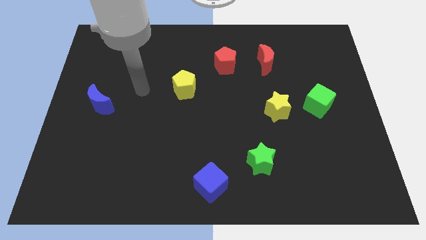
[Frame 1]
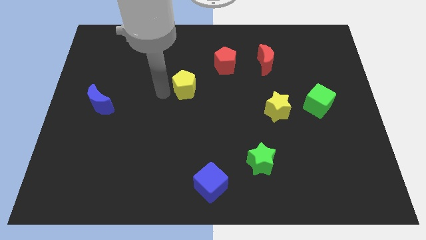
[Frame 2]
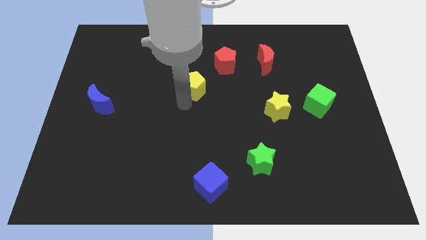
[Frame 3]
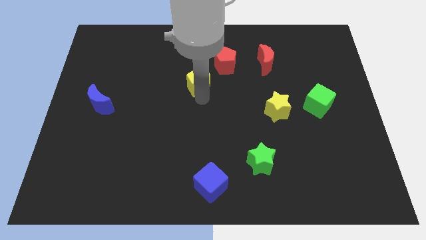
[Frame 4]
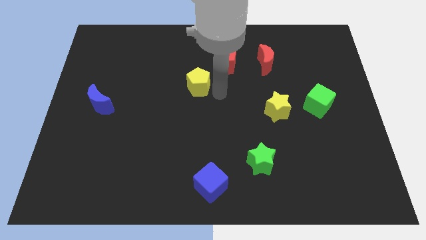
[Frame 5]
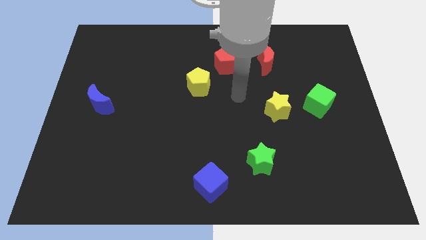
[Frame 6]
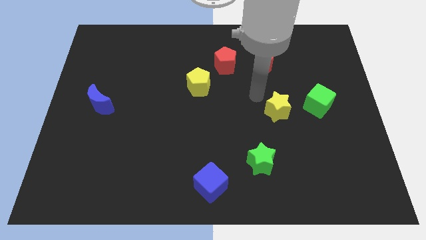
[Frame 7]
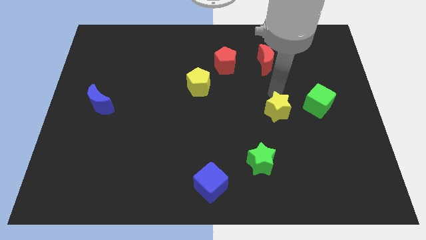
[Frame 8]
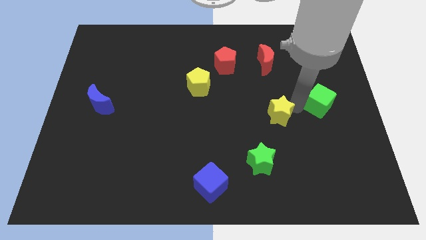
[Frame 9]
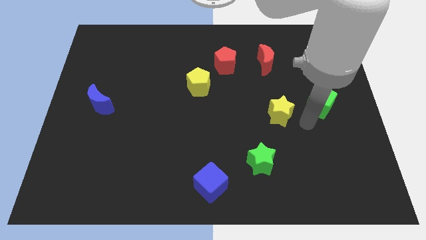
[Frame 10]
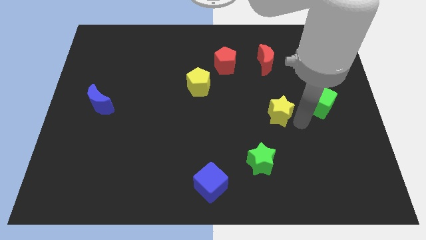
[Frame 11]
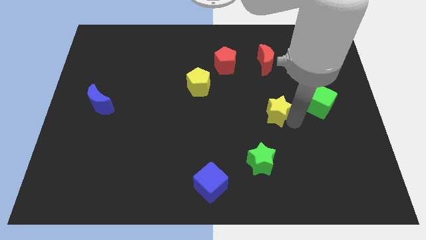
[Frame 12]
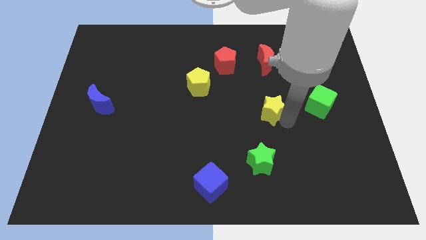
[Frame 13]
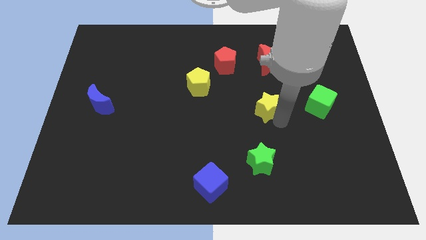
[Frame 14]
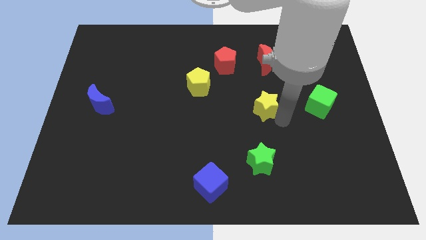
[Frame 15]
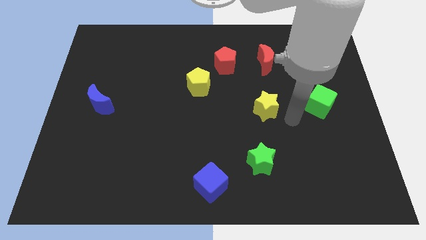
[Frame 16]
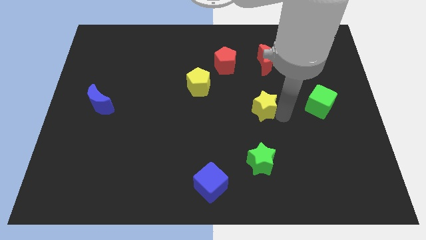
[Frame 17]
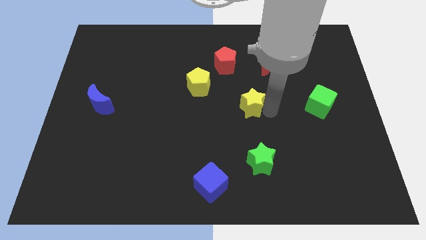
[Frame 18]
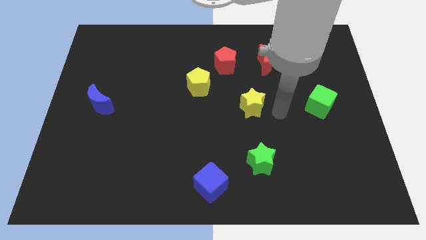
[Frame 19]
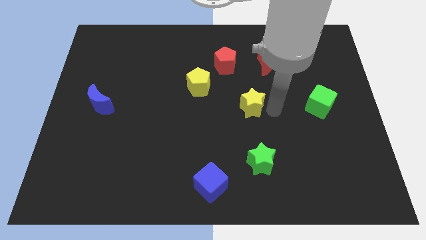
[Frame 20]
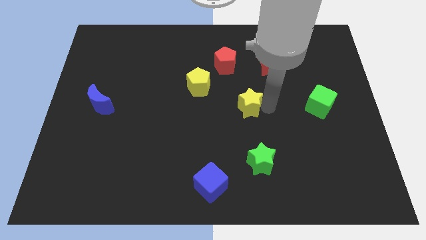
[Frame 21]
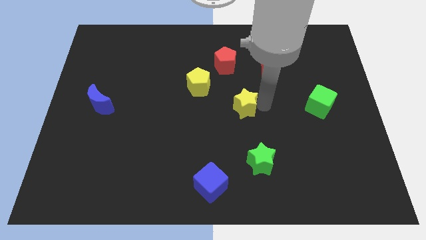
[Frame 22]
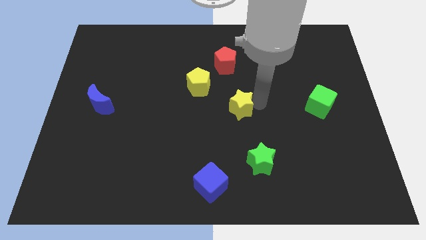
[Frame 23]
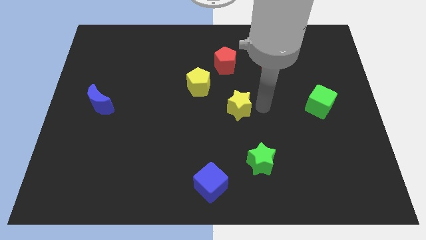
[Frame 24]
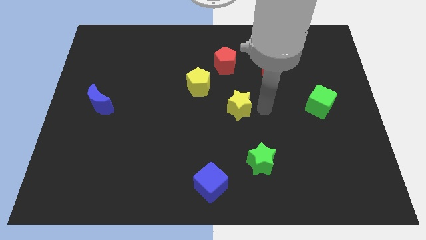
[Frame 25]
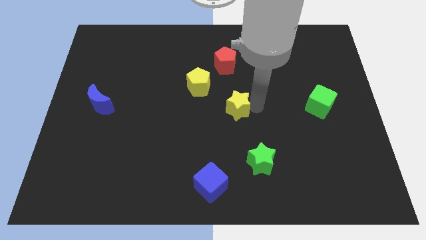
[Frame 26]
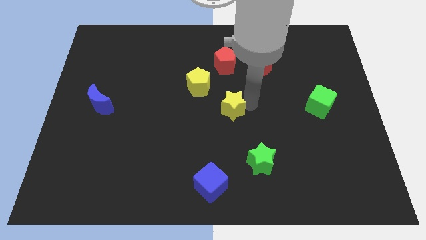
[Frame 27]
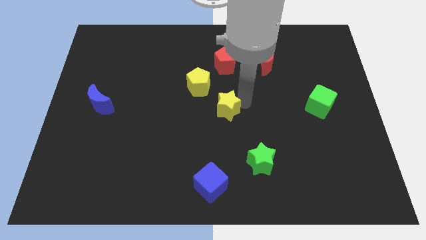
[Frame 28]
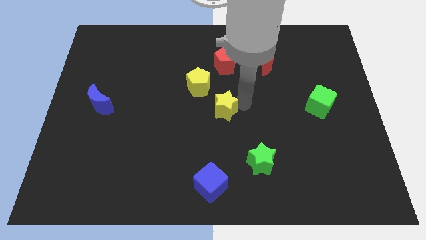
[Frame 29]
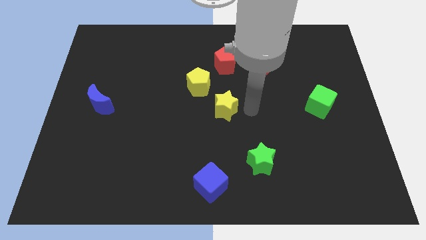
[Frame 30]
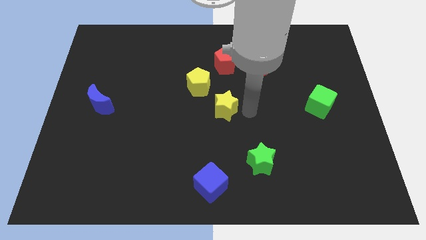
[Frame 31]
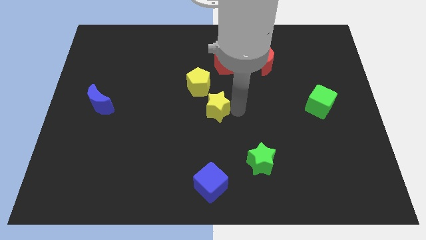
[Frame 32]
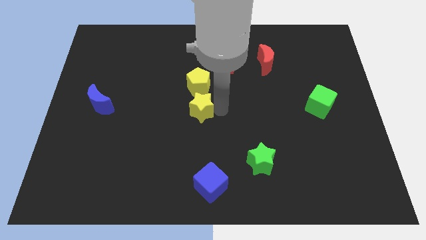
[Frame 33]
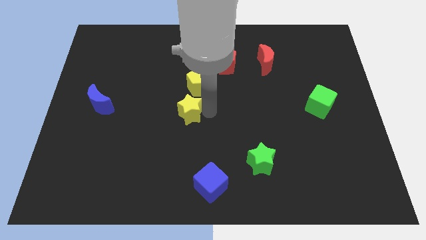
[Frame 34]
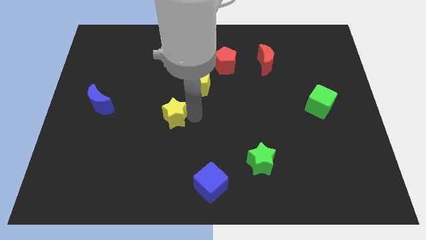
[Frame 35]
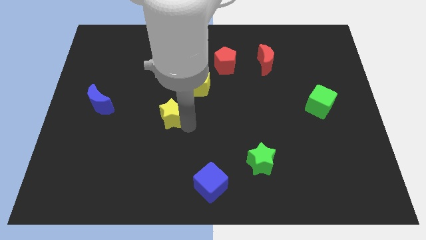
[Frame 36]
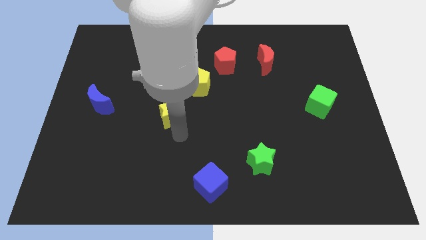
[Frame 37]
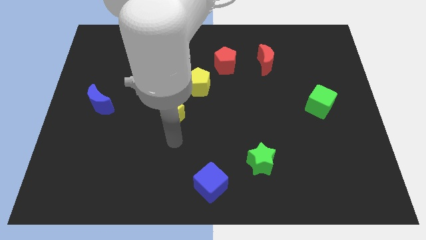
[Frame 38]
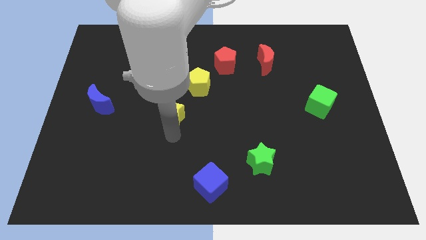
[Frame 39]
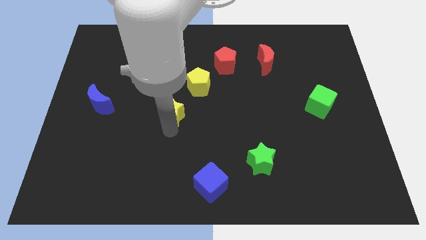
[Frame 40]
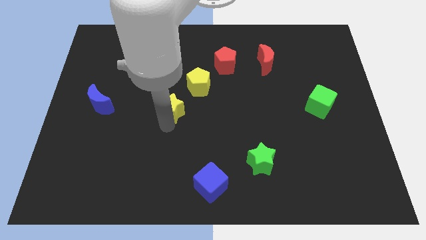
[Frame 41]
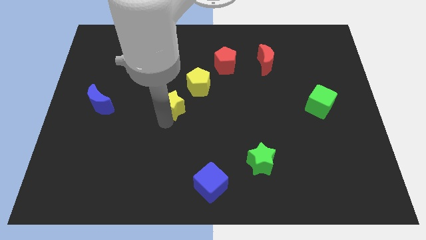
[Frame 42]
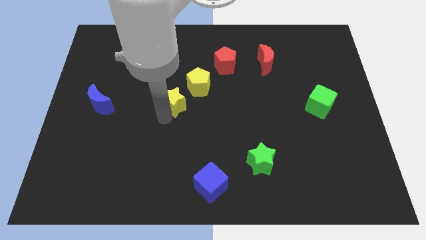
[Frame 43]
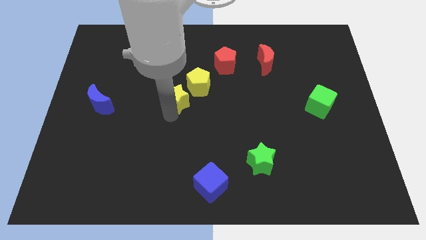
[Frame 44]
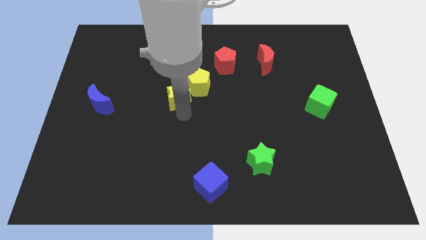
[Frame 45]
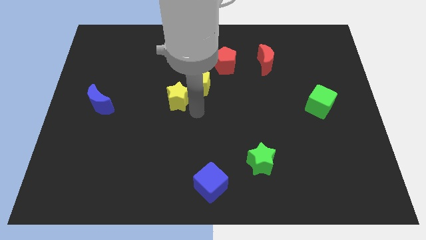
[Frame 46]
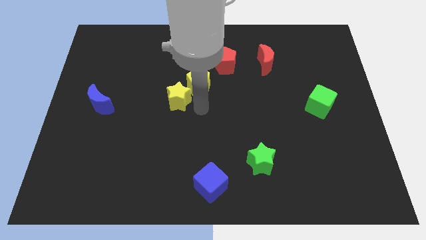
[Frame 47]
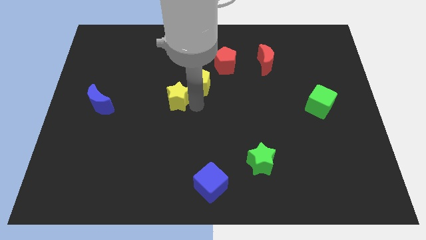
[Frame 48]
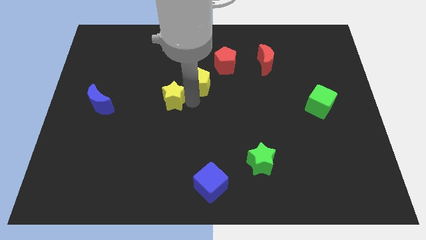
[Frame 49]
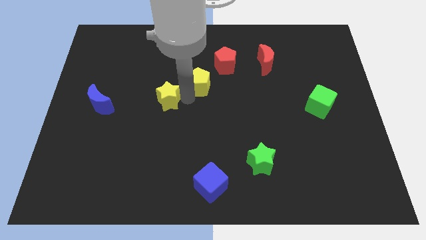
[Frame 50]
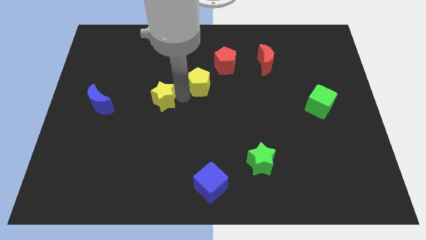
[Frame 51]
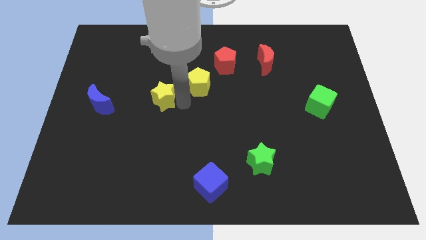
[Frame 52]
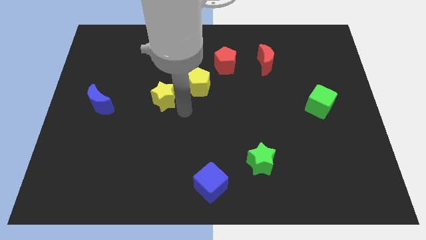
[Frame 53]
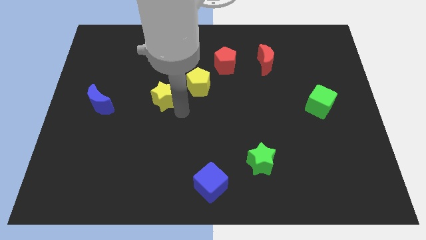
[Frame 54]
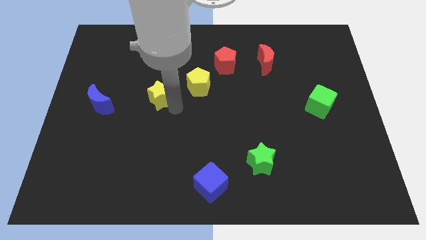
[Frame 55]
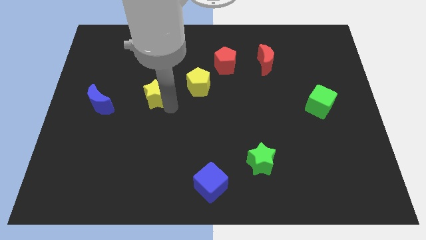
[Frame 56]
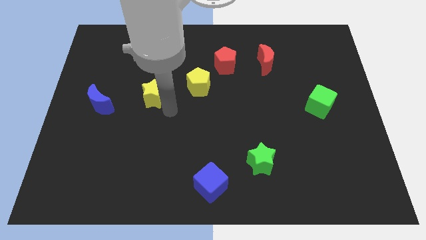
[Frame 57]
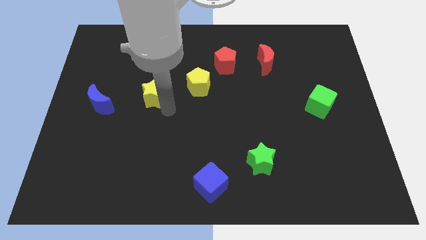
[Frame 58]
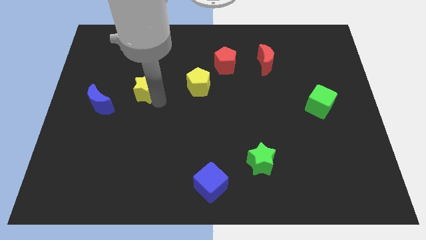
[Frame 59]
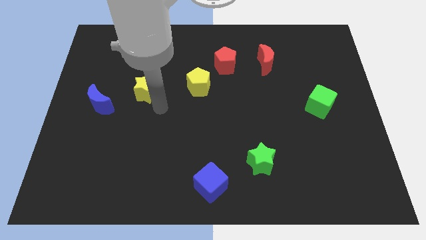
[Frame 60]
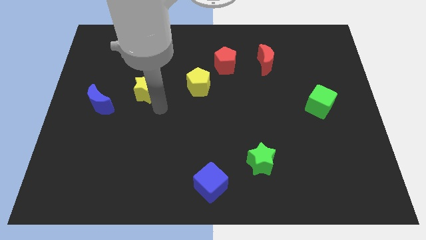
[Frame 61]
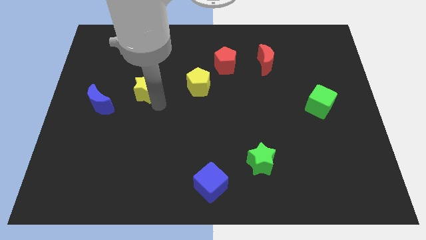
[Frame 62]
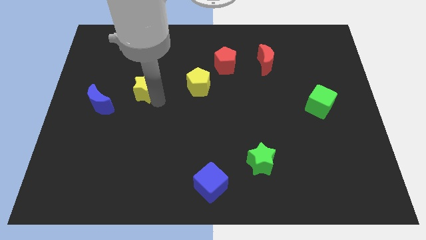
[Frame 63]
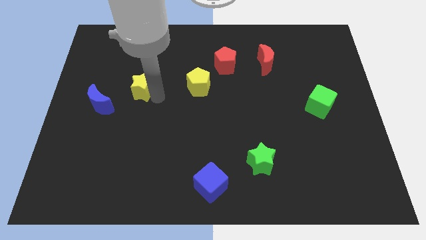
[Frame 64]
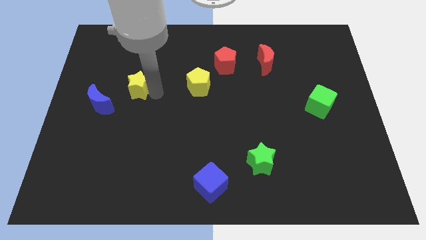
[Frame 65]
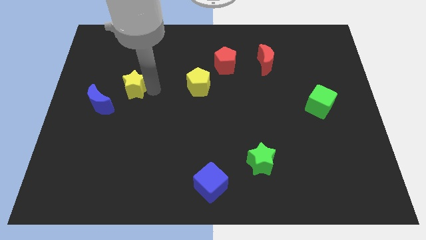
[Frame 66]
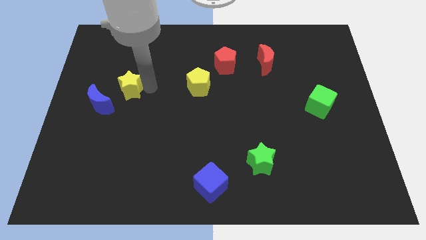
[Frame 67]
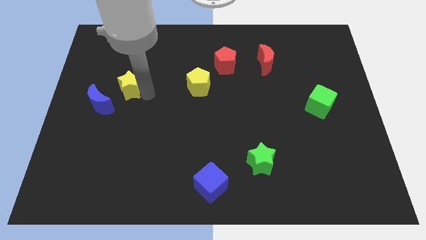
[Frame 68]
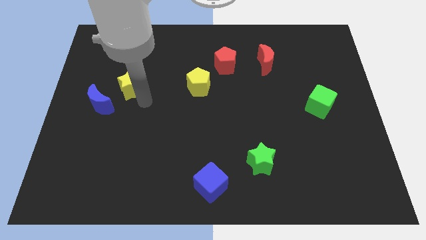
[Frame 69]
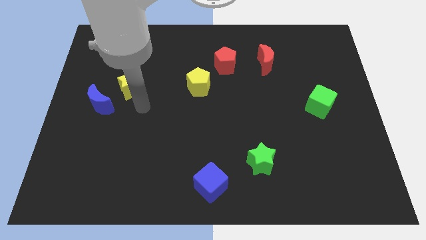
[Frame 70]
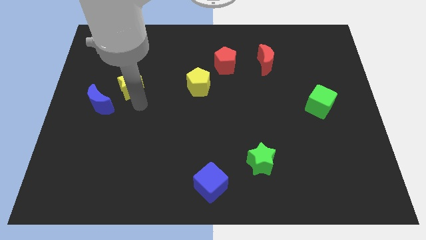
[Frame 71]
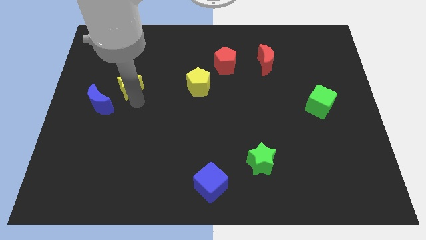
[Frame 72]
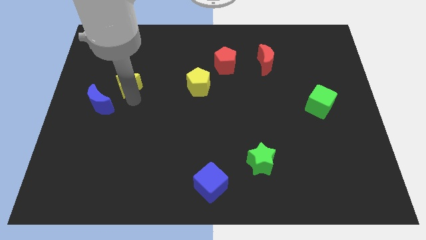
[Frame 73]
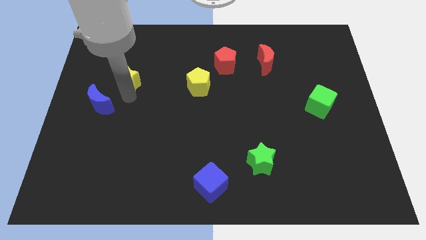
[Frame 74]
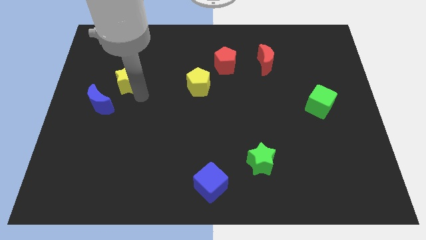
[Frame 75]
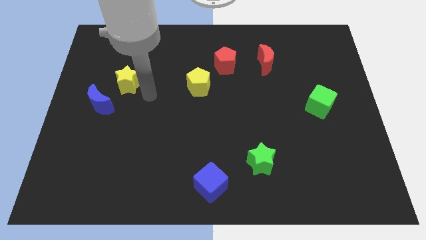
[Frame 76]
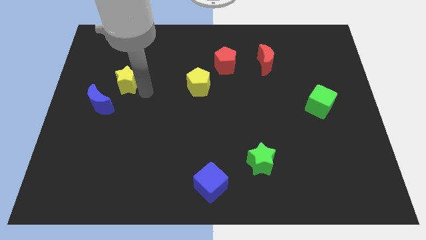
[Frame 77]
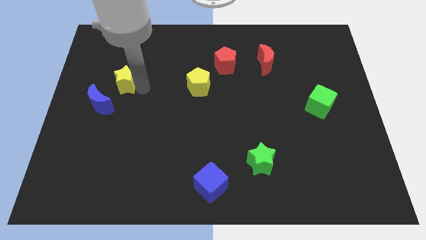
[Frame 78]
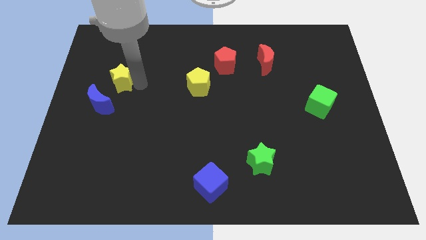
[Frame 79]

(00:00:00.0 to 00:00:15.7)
push the yellow star to the top side of the blue moon

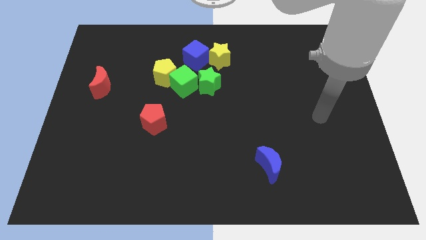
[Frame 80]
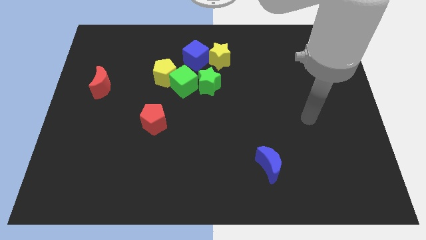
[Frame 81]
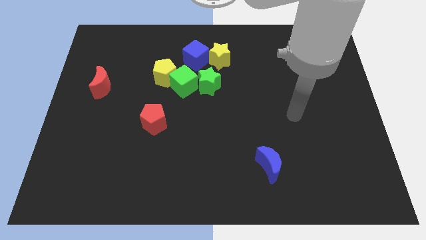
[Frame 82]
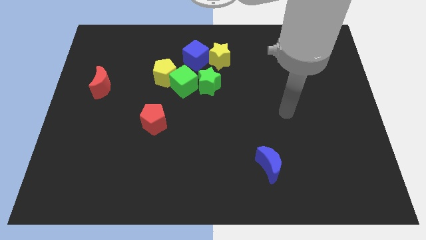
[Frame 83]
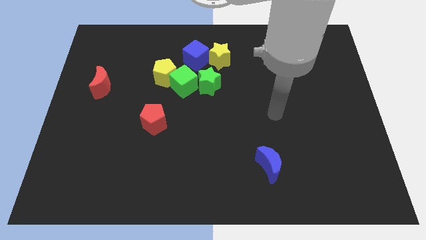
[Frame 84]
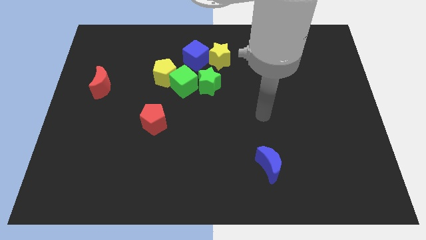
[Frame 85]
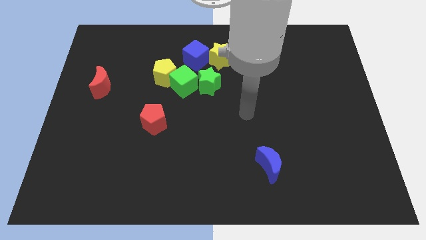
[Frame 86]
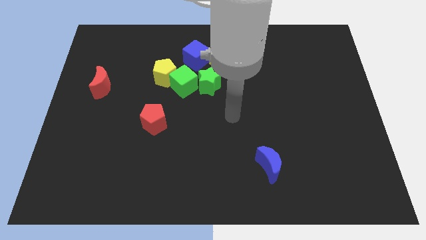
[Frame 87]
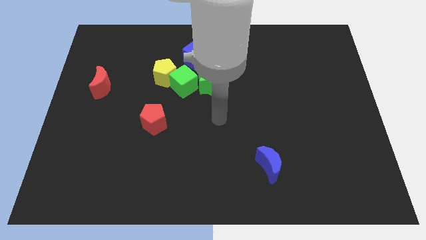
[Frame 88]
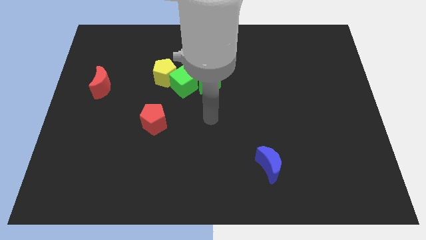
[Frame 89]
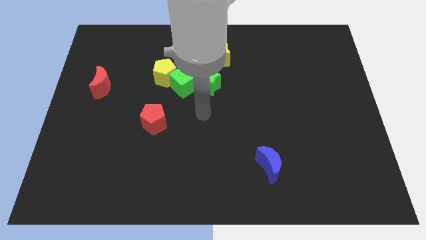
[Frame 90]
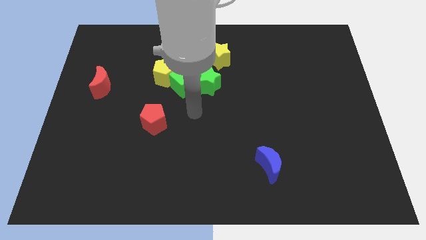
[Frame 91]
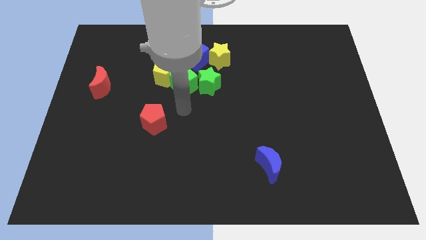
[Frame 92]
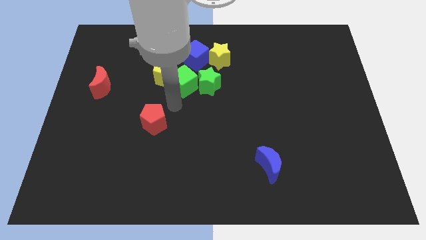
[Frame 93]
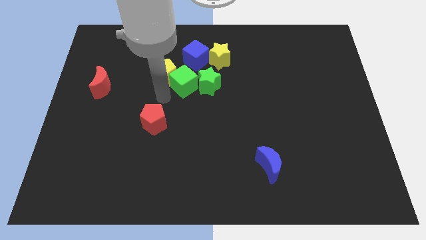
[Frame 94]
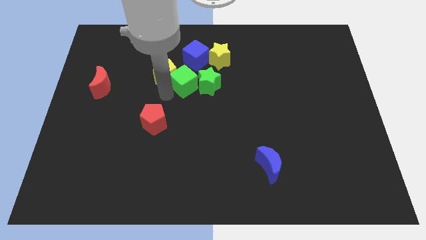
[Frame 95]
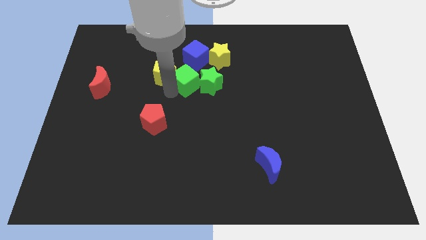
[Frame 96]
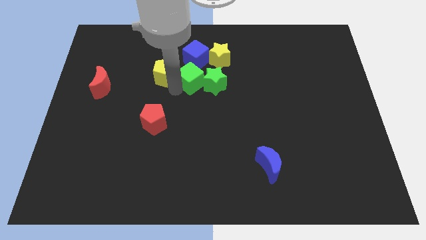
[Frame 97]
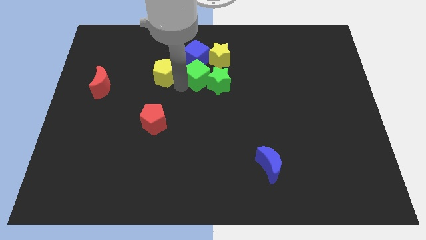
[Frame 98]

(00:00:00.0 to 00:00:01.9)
slide the green cube diagonally down and to the right of the blue cube
